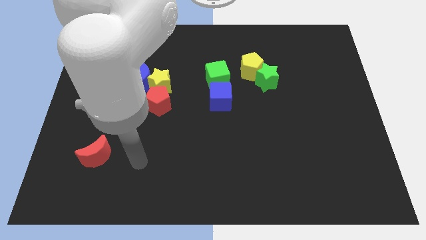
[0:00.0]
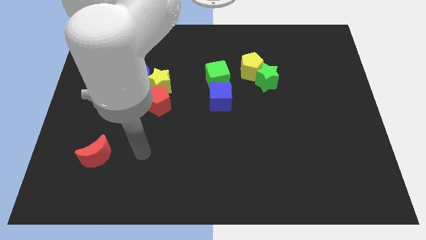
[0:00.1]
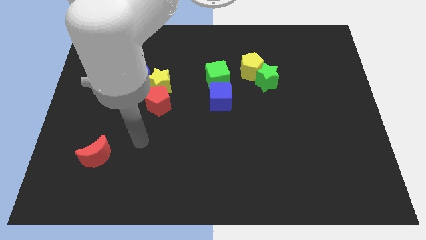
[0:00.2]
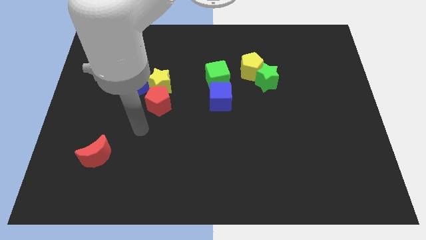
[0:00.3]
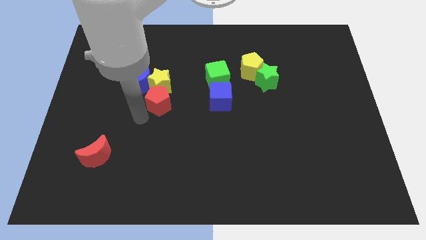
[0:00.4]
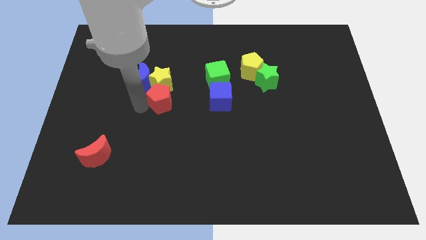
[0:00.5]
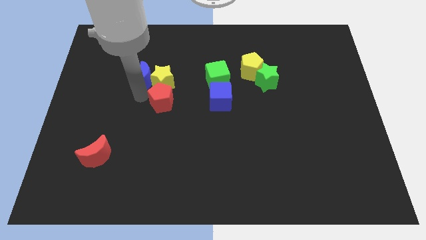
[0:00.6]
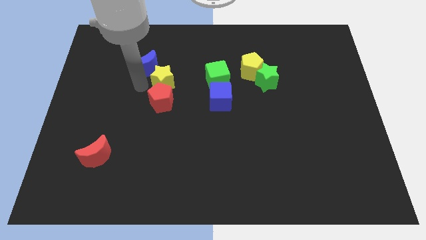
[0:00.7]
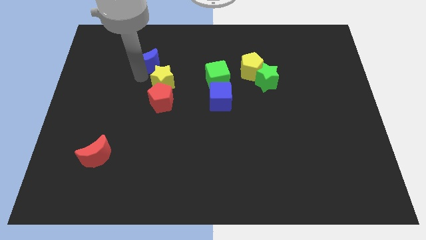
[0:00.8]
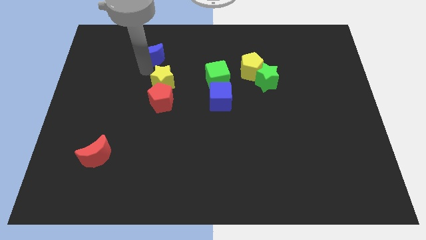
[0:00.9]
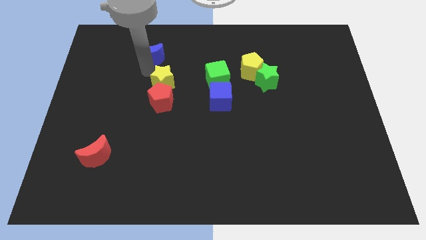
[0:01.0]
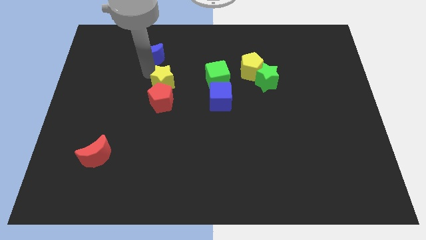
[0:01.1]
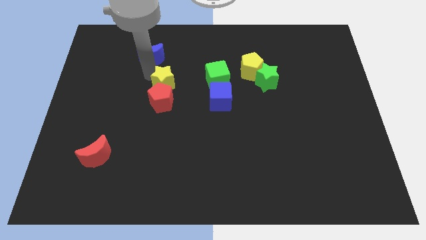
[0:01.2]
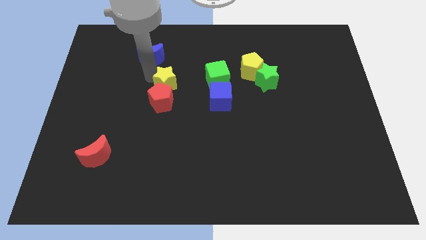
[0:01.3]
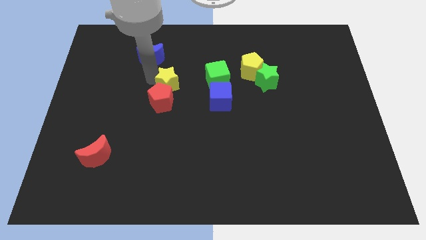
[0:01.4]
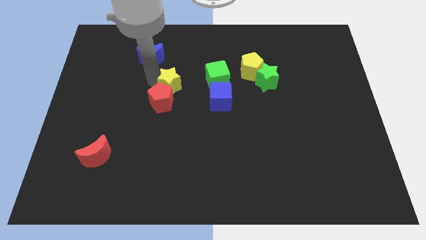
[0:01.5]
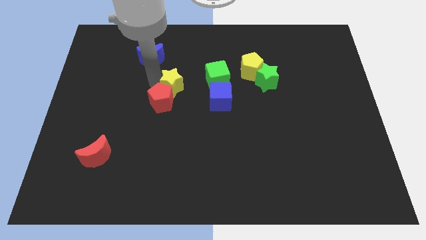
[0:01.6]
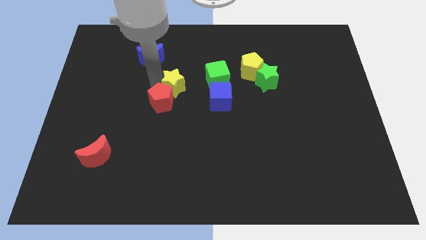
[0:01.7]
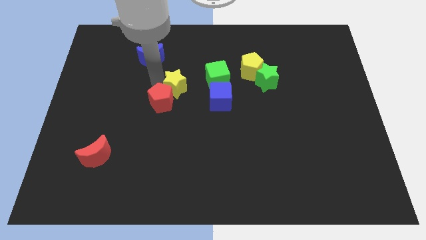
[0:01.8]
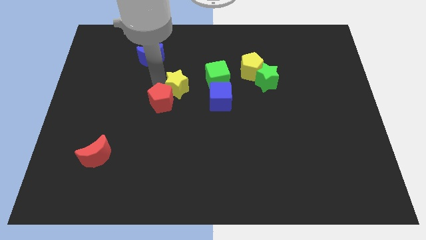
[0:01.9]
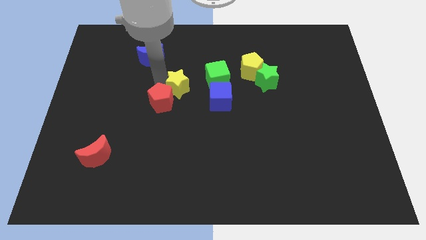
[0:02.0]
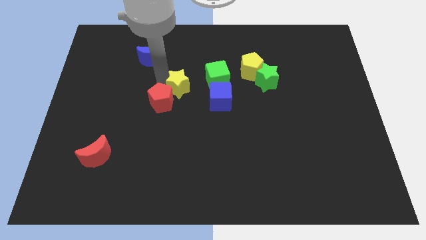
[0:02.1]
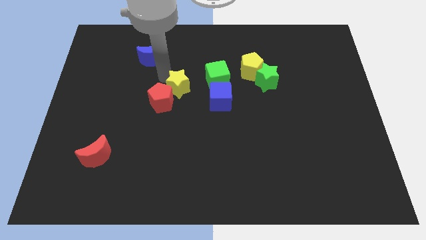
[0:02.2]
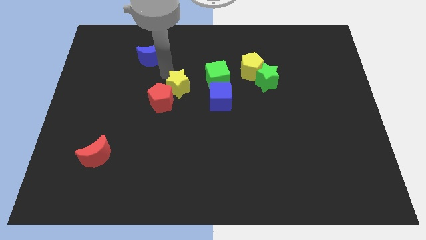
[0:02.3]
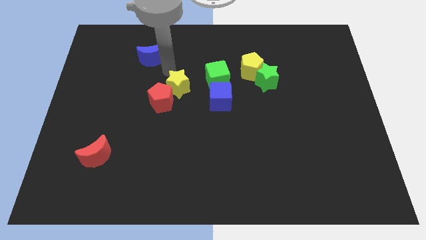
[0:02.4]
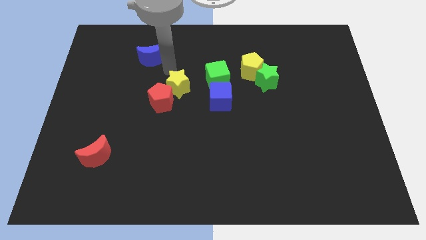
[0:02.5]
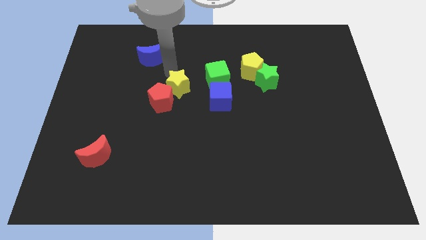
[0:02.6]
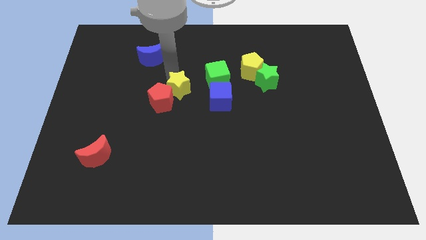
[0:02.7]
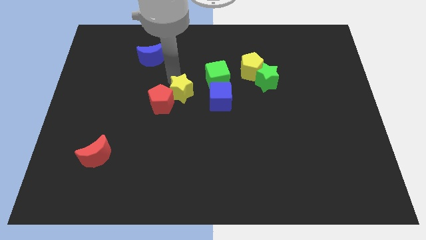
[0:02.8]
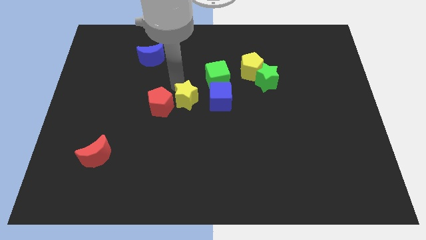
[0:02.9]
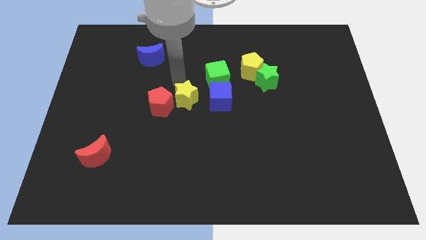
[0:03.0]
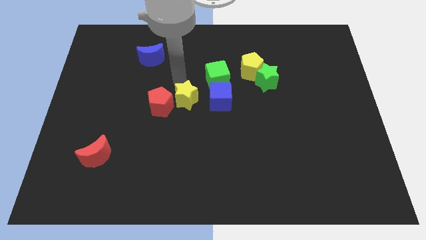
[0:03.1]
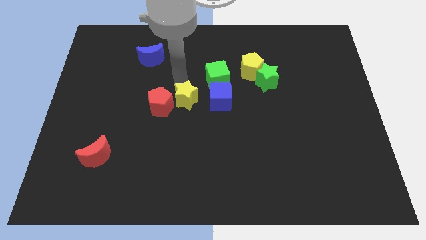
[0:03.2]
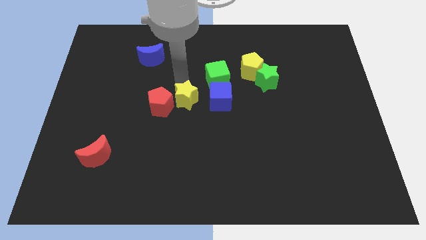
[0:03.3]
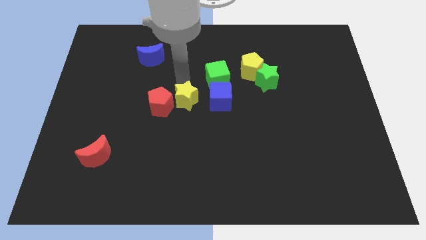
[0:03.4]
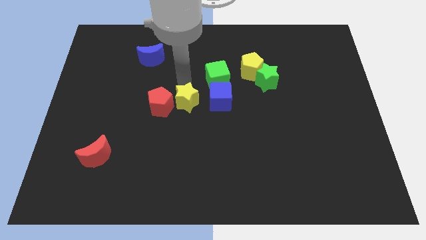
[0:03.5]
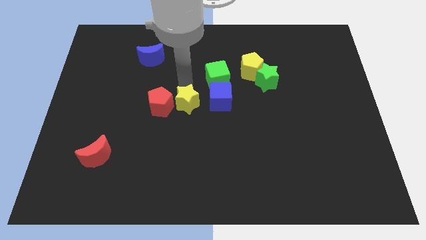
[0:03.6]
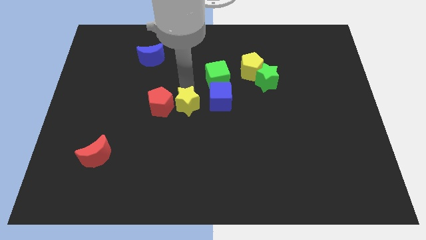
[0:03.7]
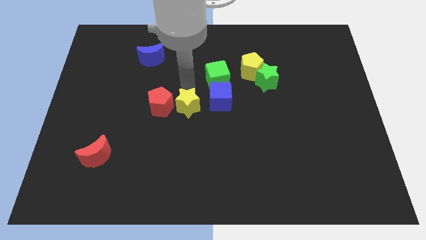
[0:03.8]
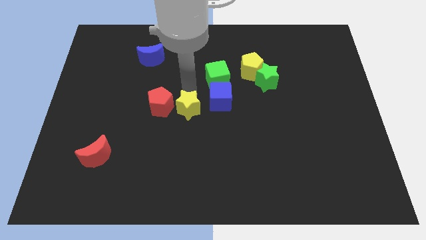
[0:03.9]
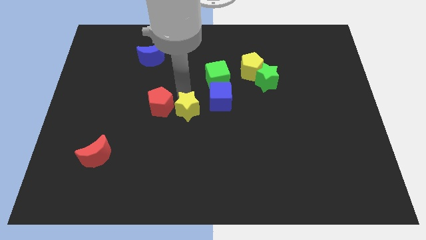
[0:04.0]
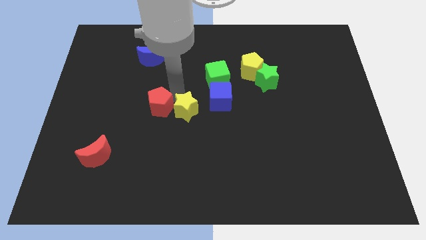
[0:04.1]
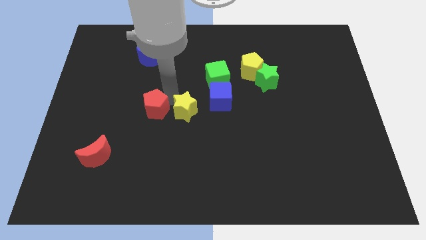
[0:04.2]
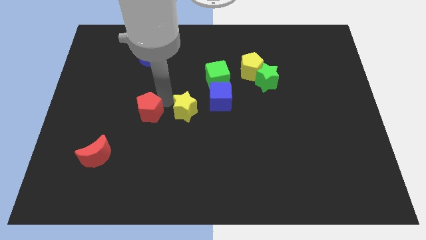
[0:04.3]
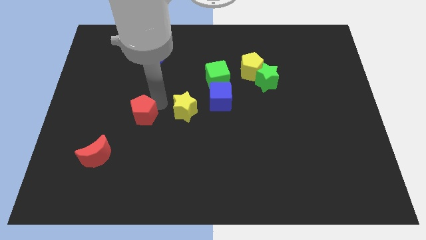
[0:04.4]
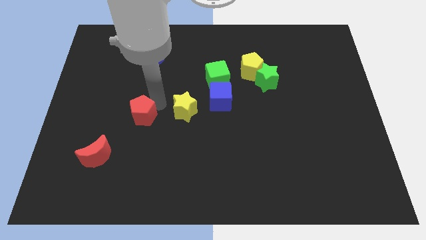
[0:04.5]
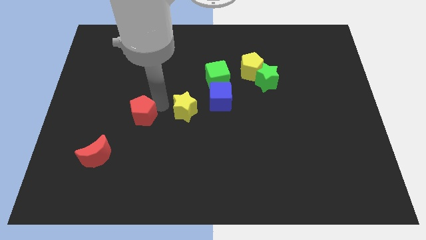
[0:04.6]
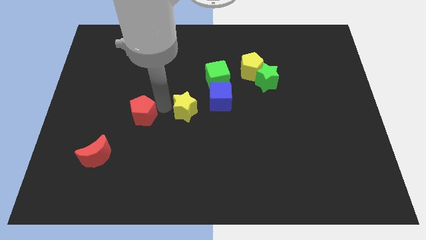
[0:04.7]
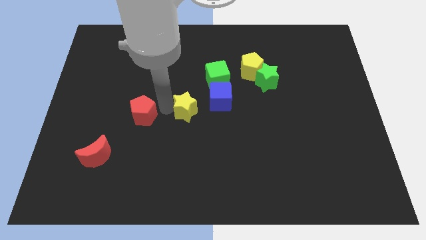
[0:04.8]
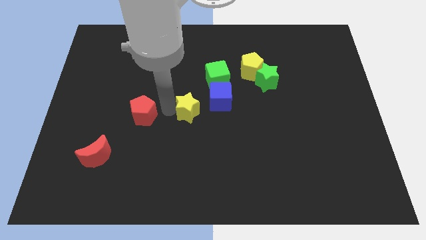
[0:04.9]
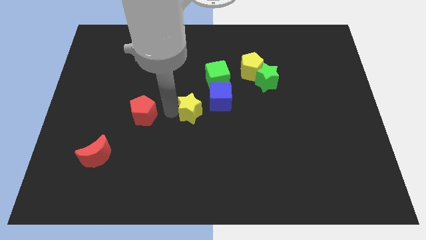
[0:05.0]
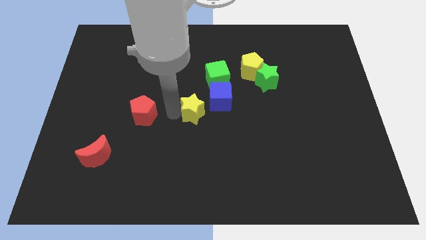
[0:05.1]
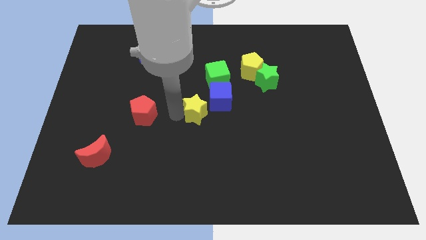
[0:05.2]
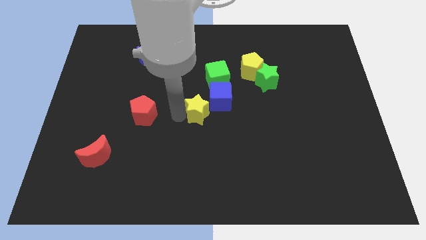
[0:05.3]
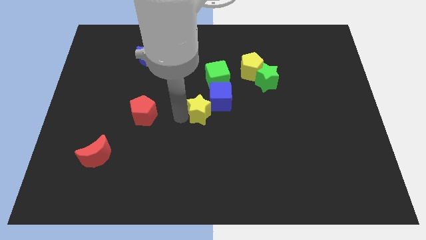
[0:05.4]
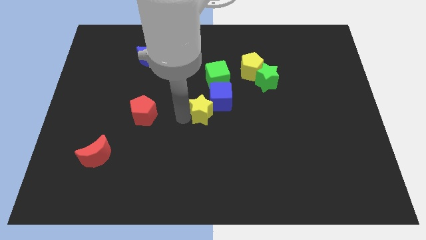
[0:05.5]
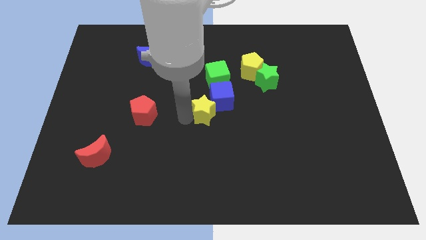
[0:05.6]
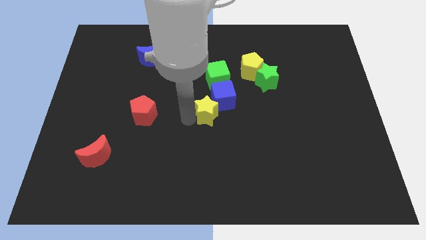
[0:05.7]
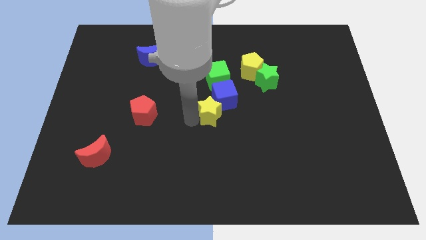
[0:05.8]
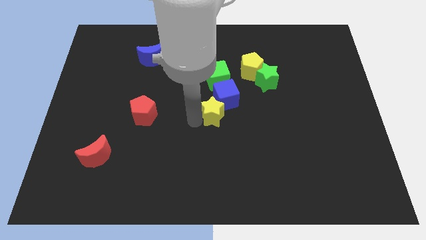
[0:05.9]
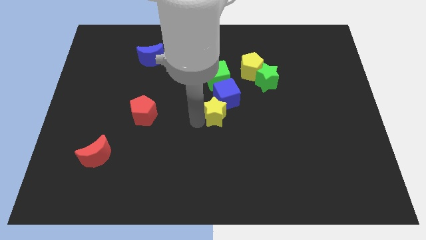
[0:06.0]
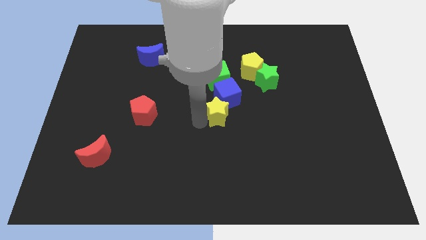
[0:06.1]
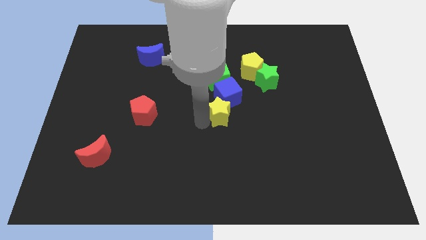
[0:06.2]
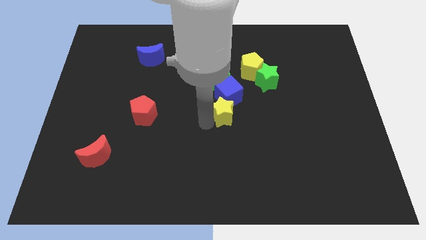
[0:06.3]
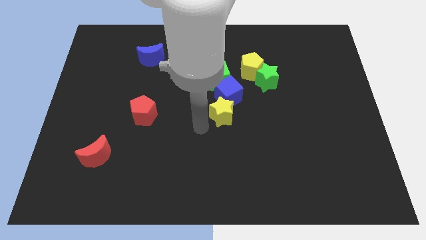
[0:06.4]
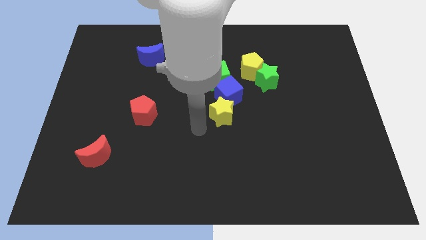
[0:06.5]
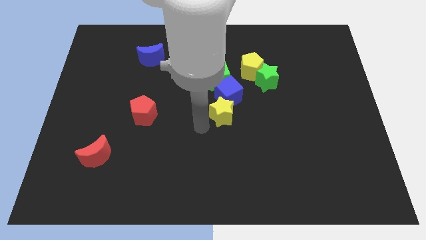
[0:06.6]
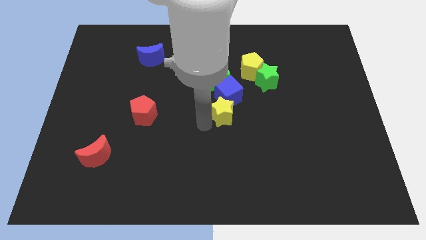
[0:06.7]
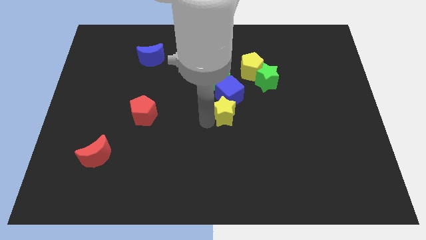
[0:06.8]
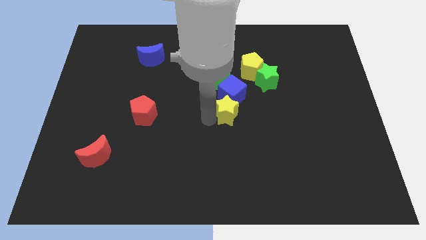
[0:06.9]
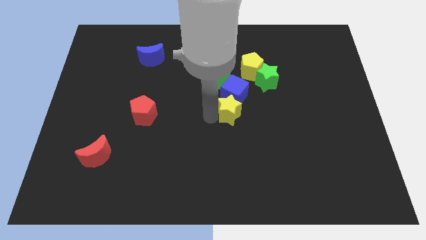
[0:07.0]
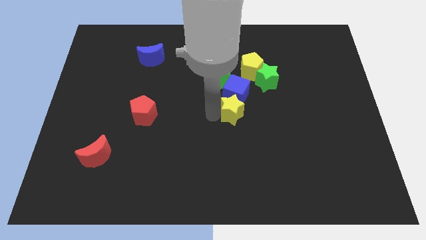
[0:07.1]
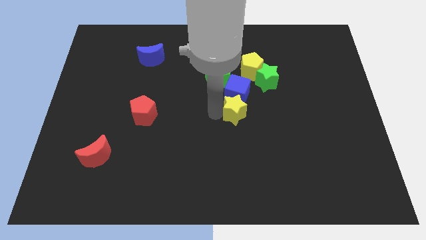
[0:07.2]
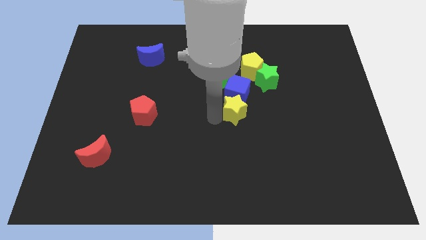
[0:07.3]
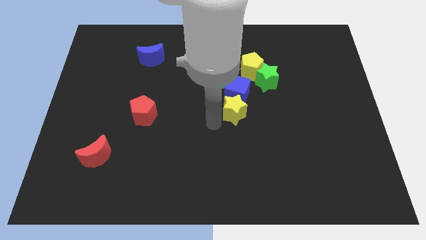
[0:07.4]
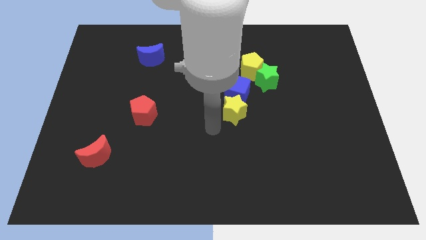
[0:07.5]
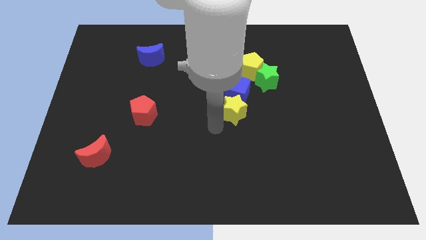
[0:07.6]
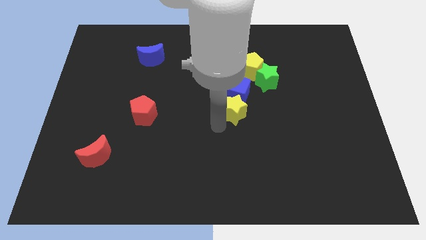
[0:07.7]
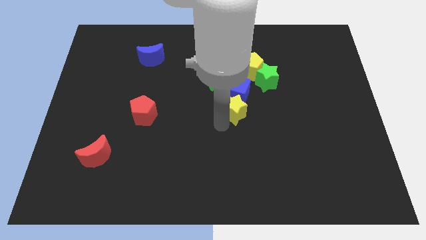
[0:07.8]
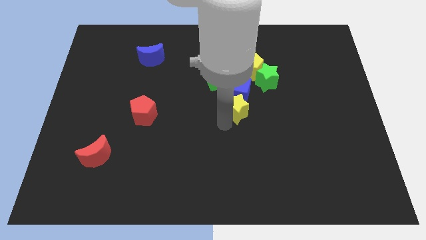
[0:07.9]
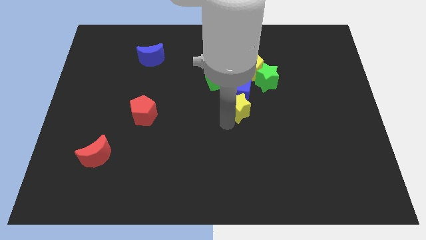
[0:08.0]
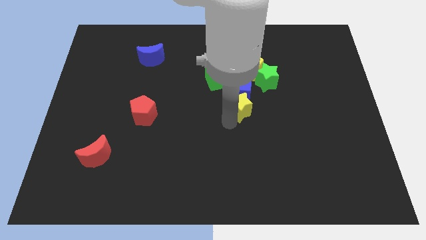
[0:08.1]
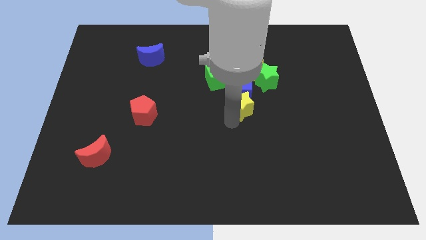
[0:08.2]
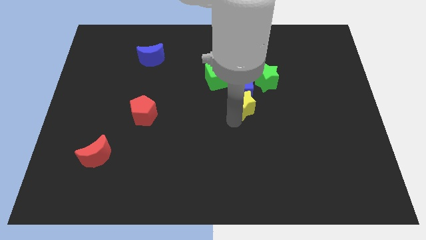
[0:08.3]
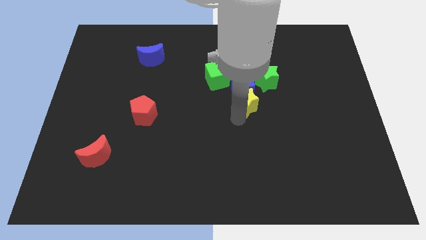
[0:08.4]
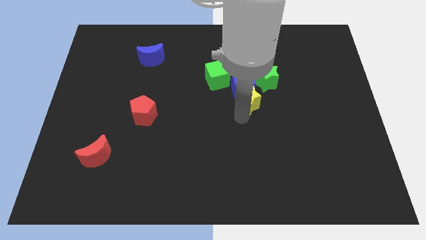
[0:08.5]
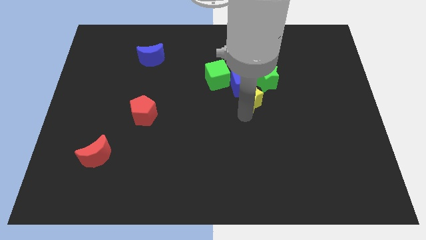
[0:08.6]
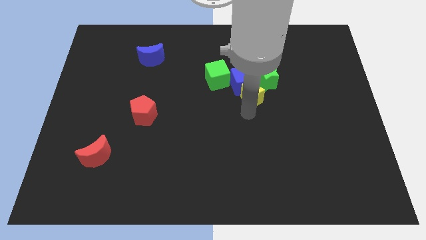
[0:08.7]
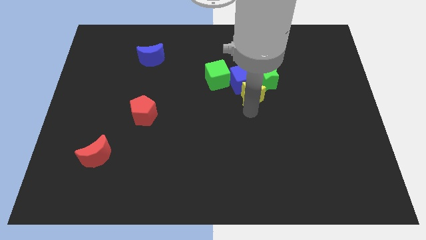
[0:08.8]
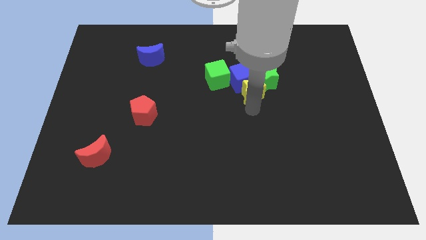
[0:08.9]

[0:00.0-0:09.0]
put the yellow star to the green star
